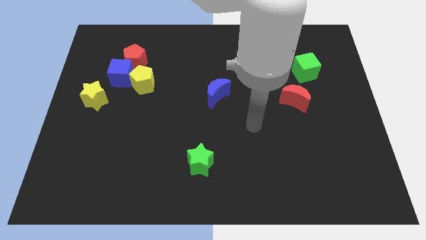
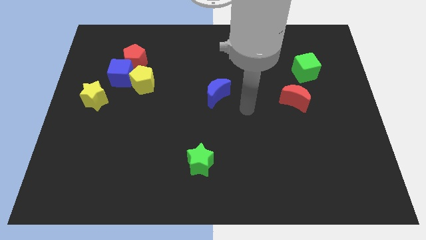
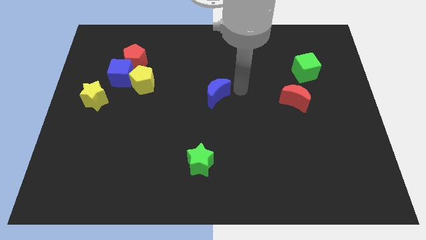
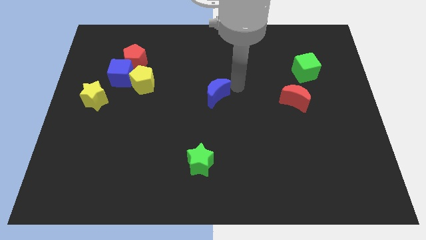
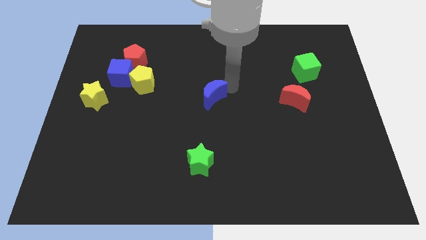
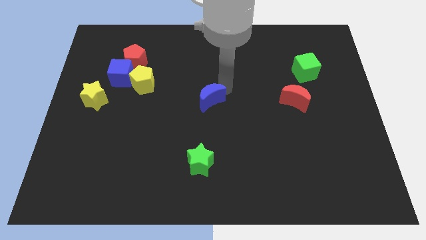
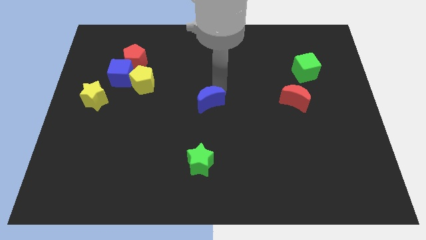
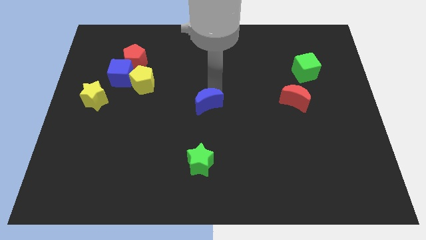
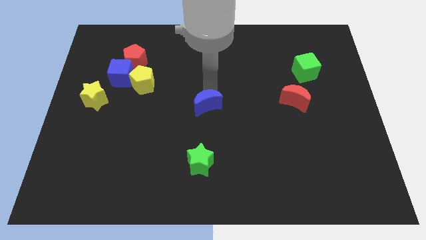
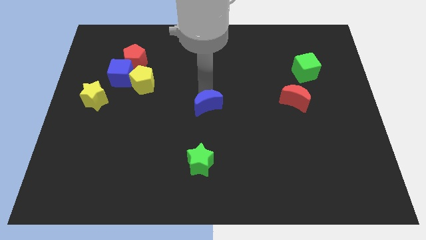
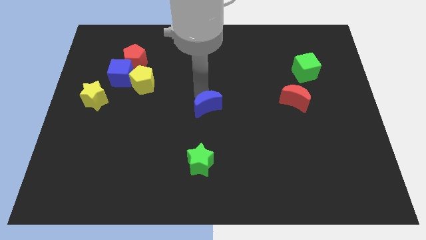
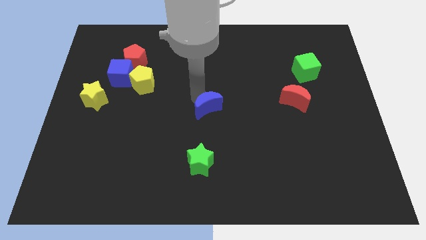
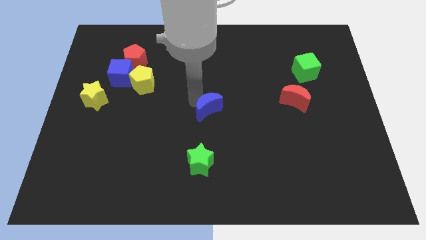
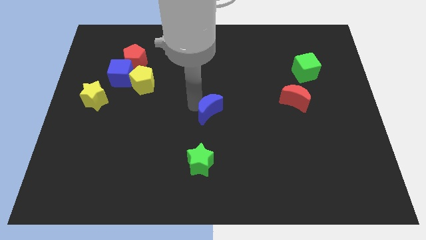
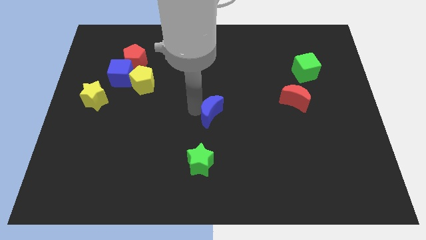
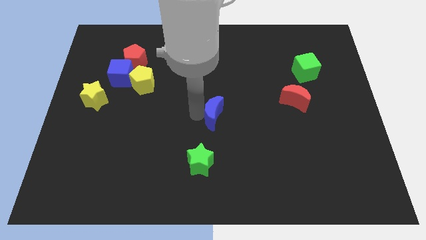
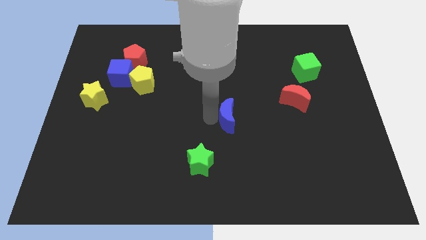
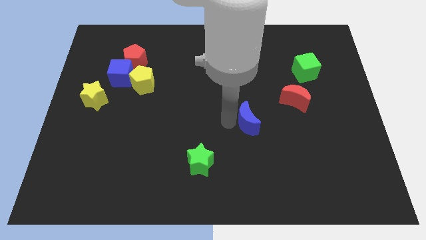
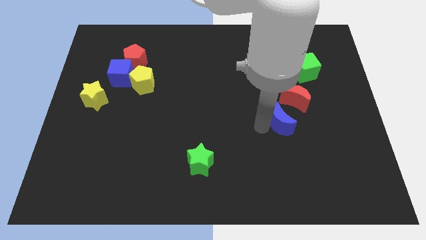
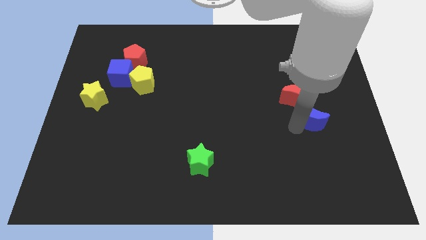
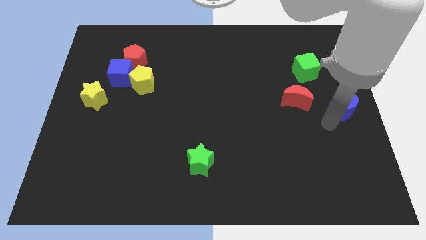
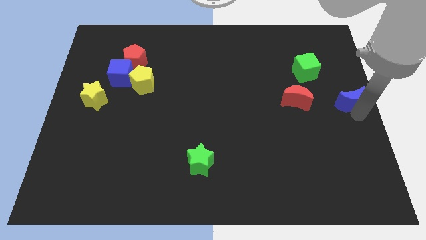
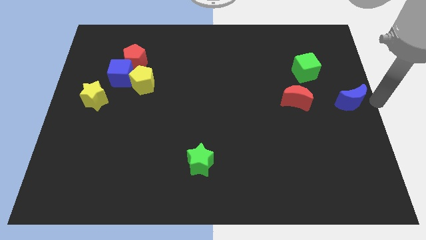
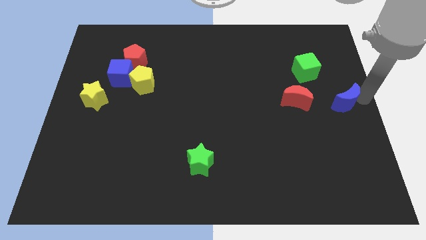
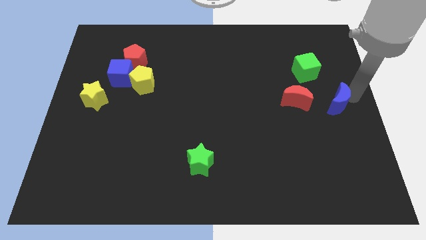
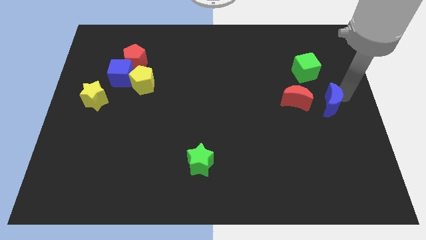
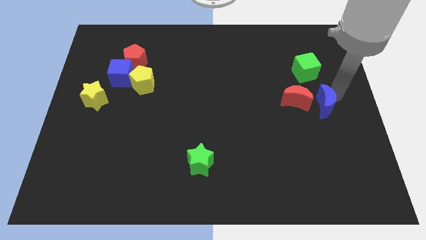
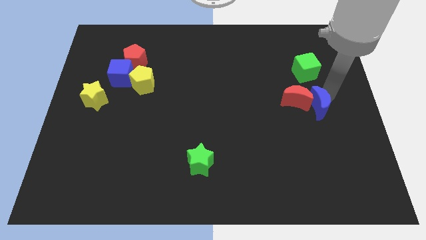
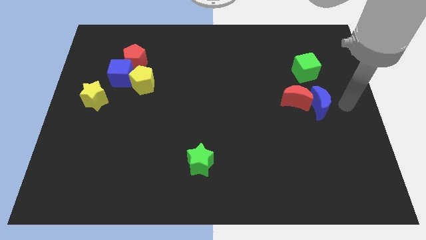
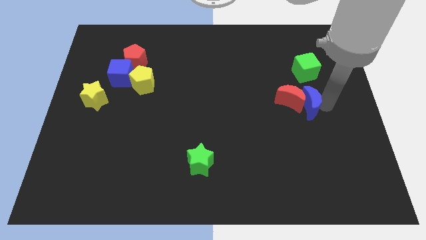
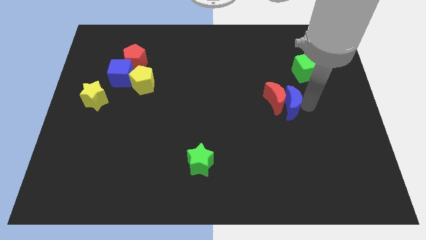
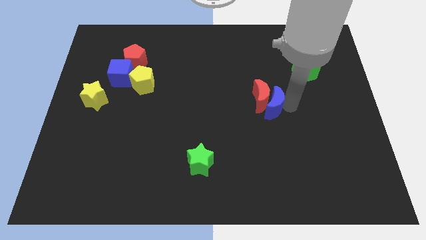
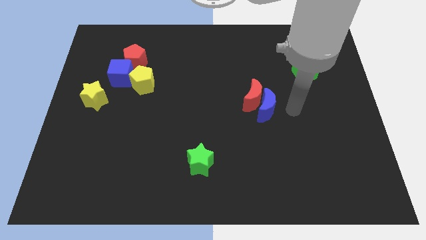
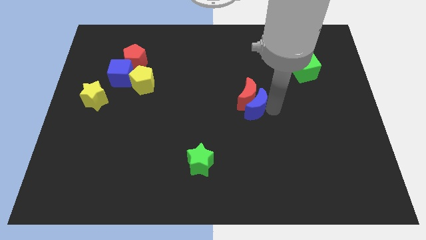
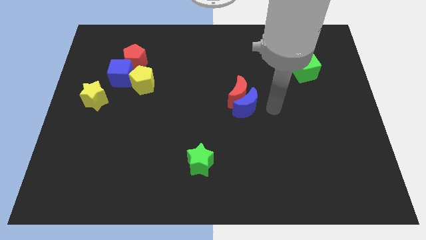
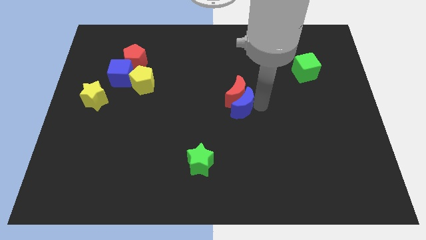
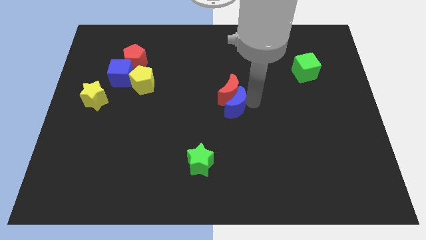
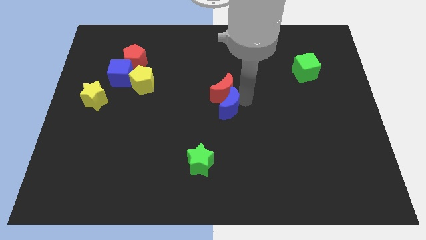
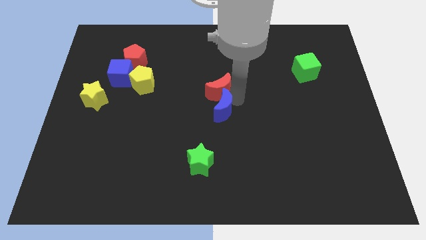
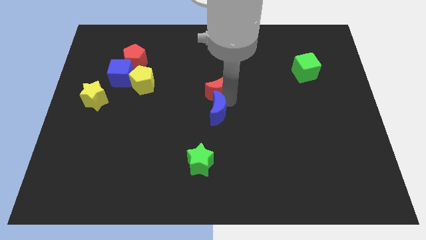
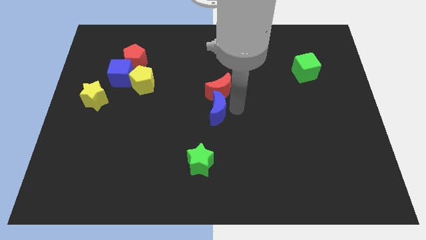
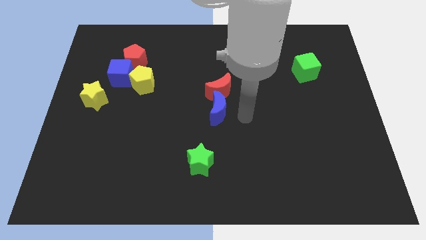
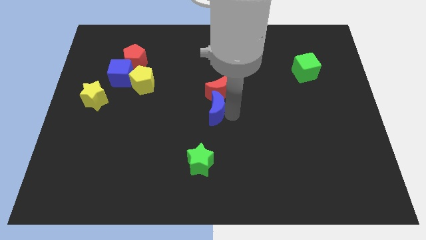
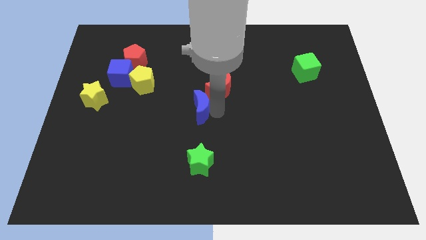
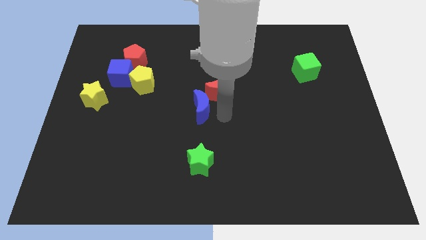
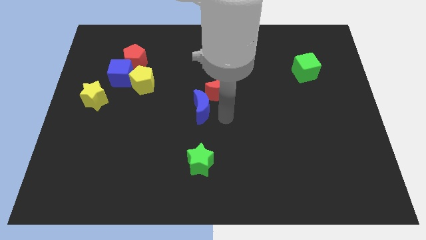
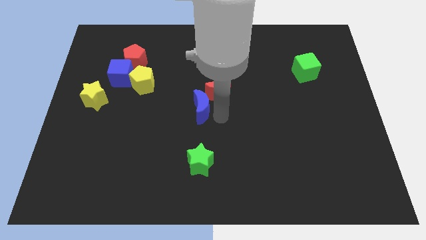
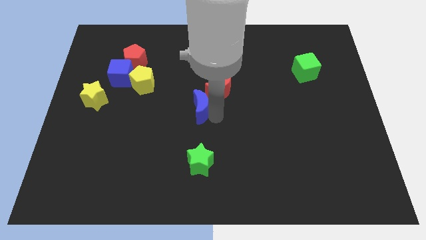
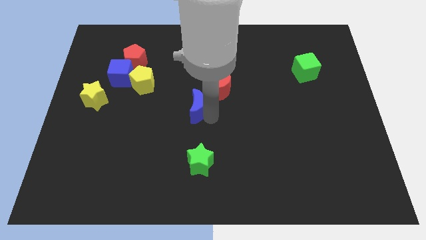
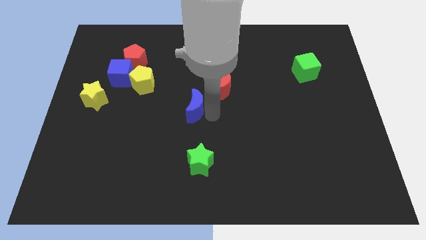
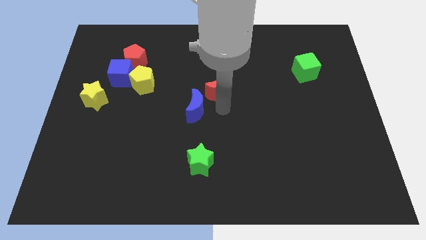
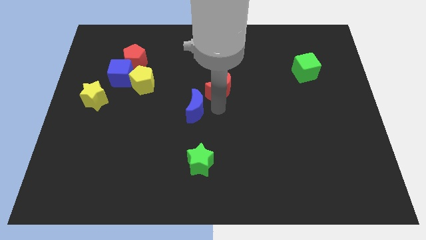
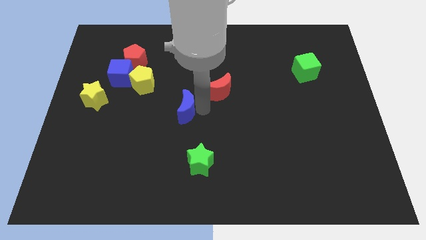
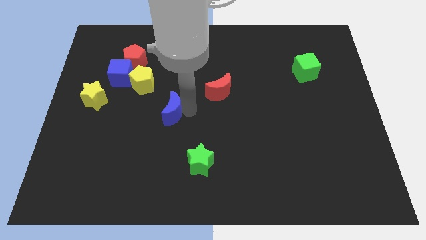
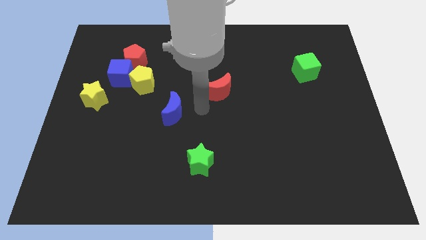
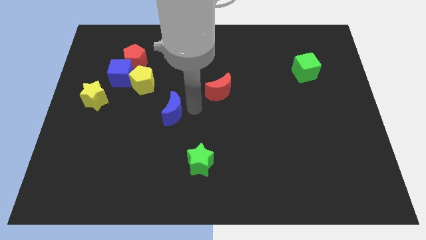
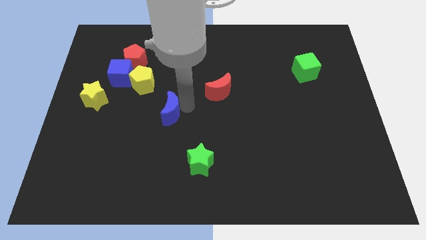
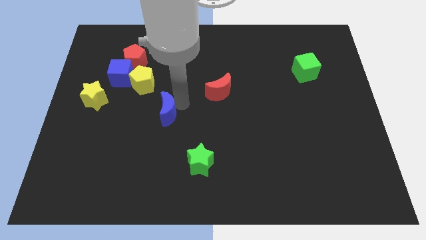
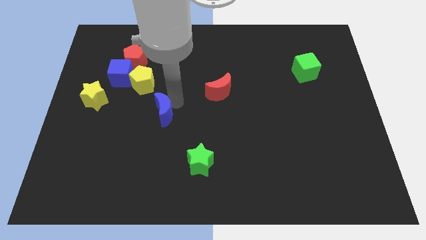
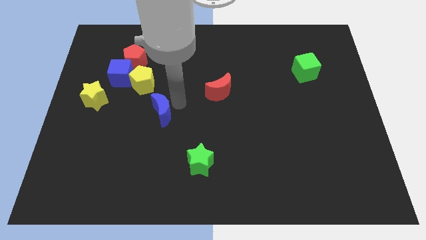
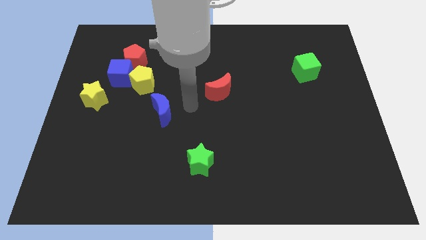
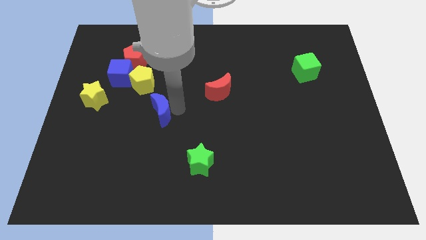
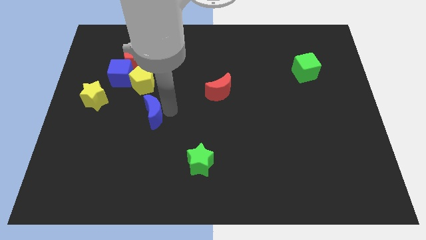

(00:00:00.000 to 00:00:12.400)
push the blue moon to the bottom of the yellow pentagon

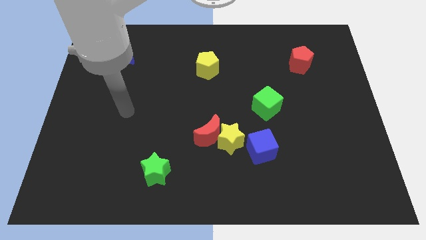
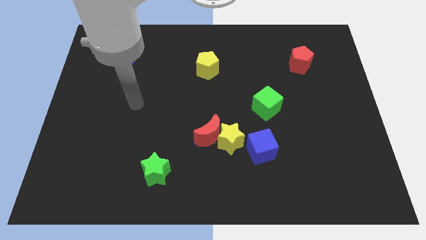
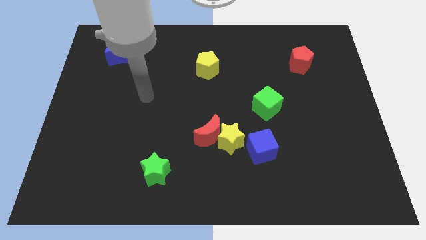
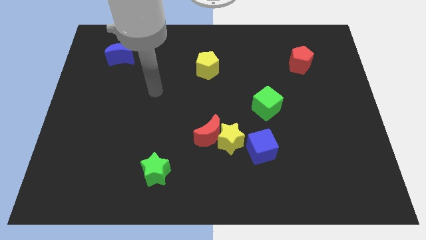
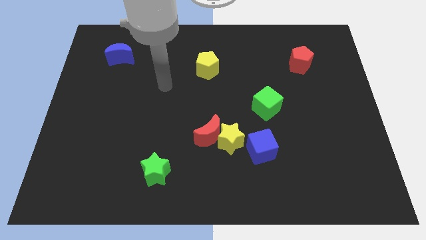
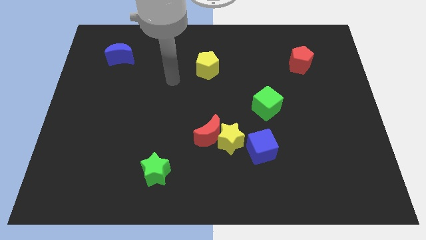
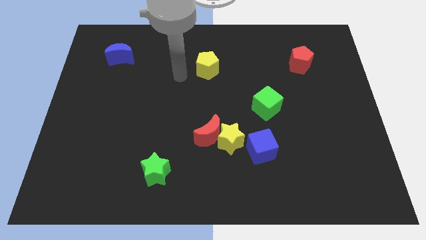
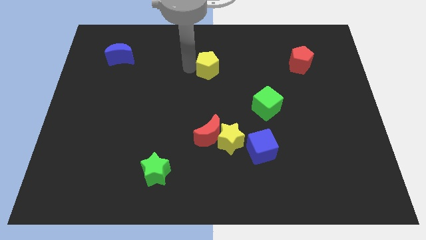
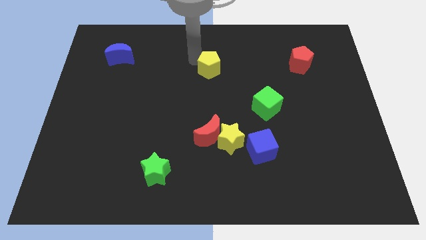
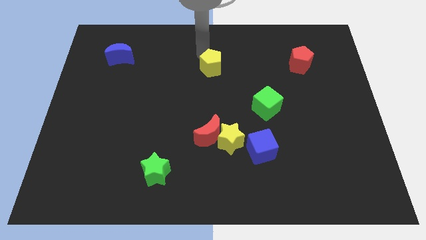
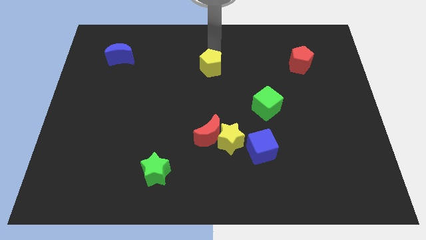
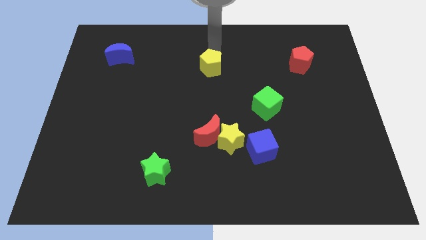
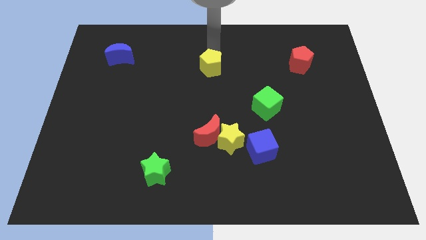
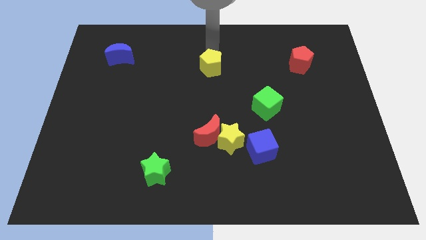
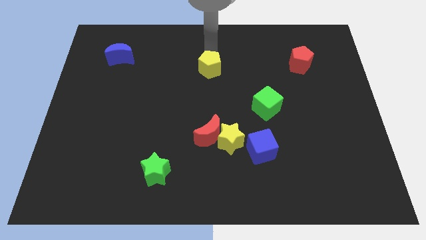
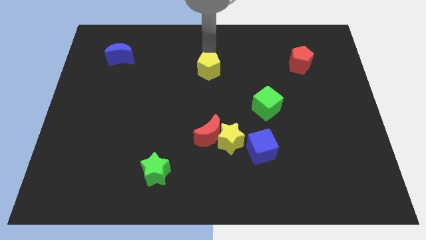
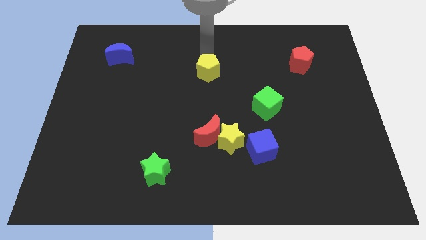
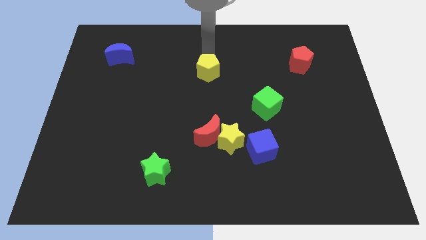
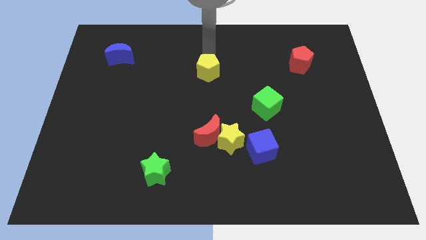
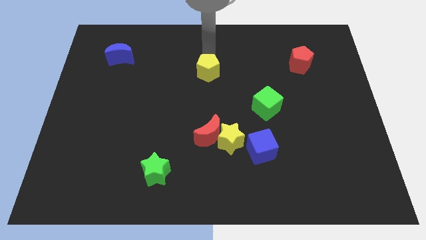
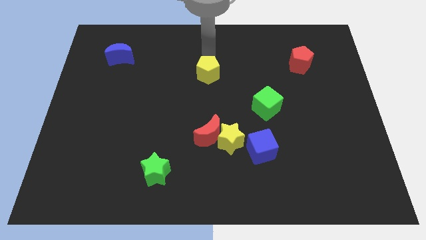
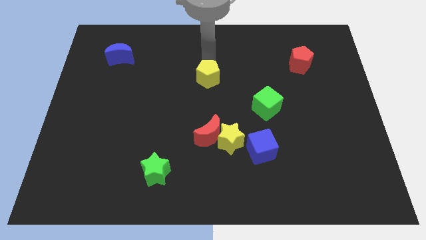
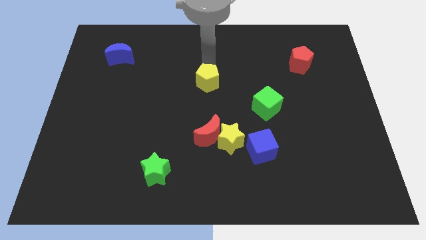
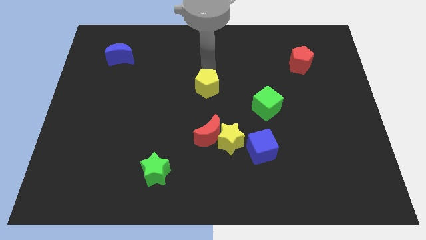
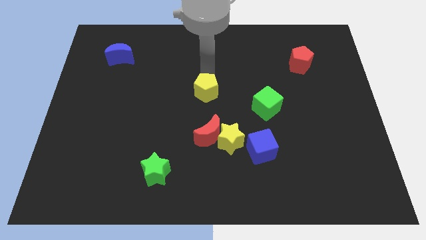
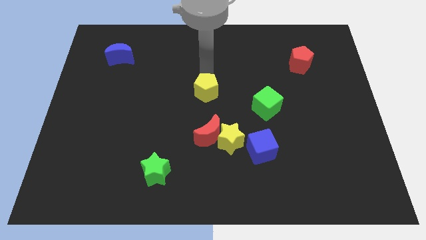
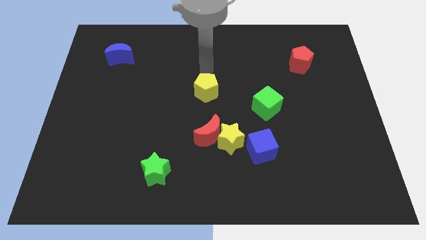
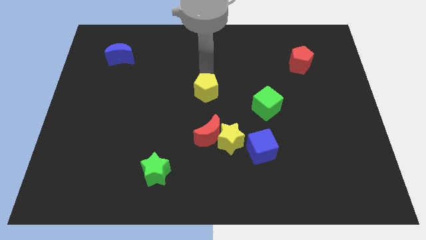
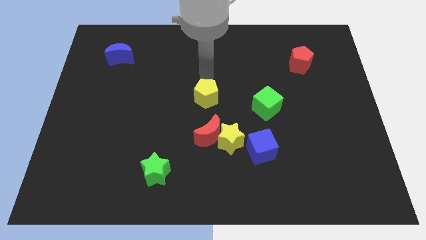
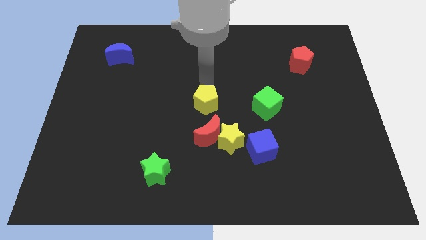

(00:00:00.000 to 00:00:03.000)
push the yellow pentagon diagonally up and to the left of the yellow star
